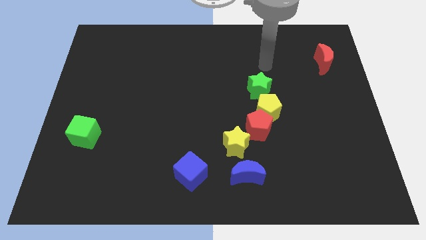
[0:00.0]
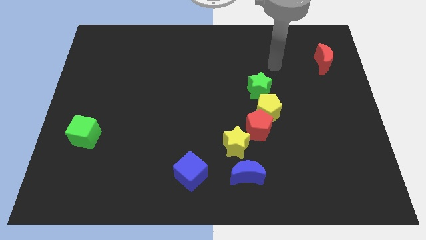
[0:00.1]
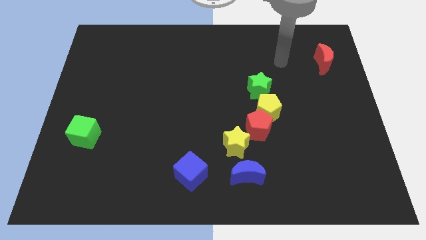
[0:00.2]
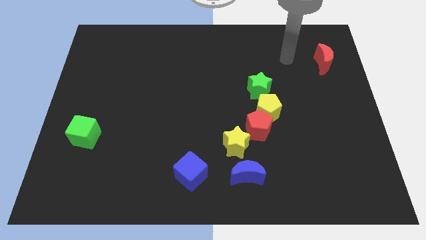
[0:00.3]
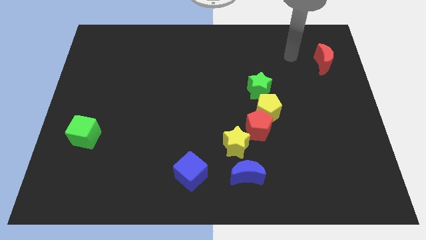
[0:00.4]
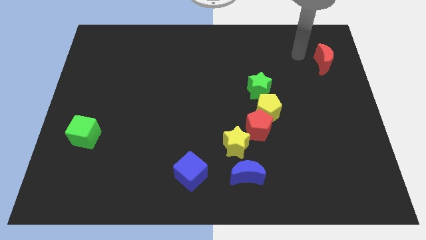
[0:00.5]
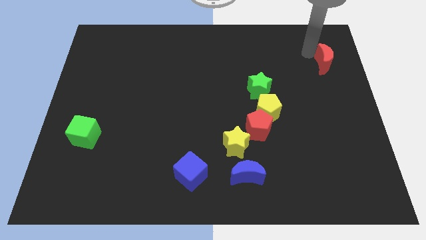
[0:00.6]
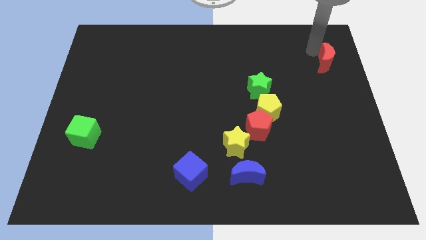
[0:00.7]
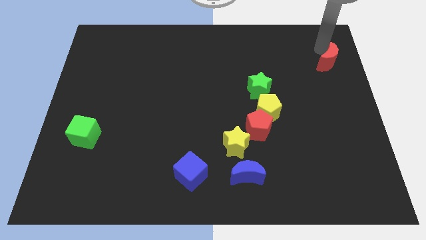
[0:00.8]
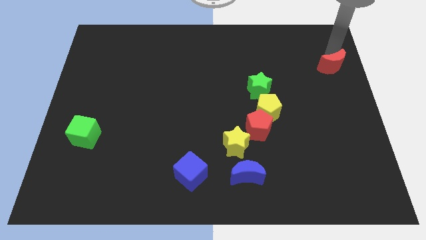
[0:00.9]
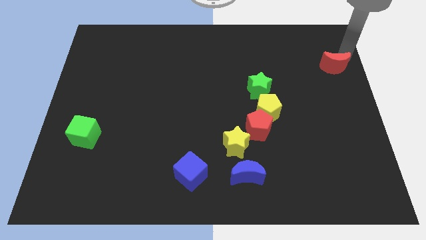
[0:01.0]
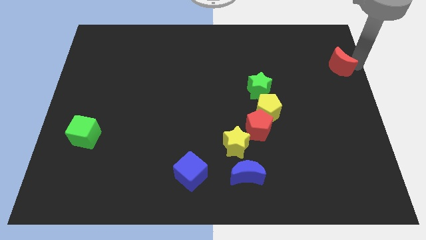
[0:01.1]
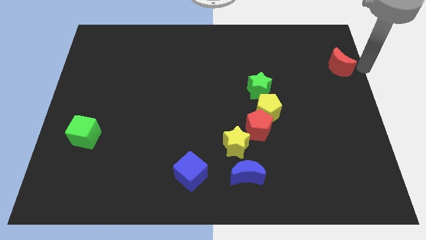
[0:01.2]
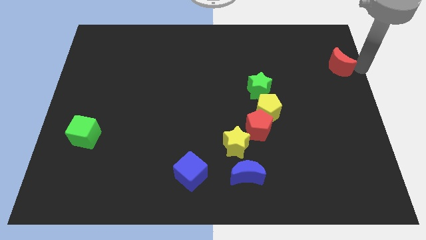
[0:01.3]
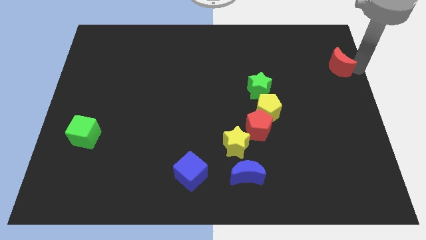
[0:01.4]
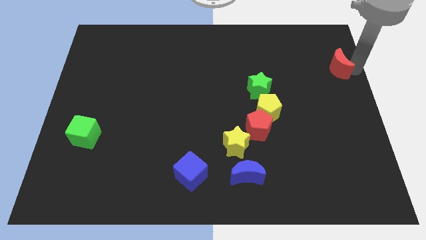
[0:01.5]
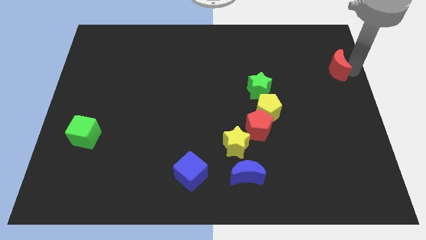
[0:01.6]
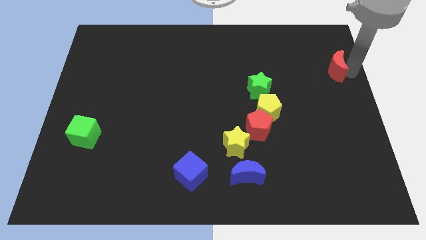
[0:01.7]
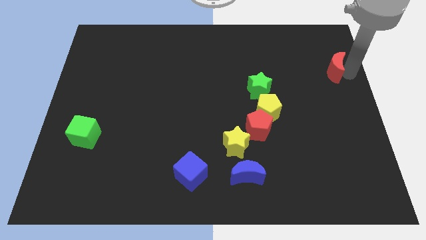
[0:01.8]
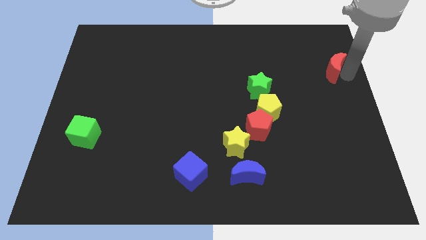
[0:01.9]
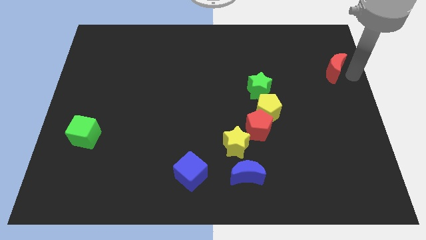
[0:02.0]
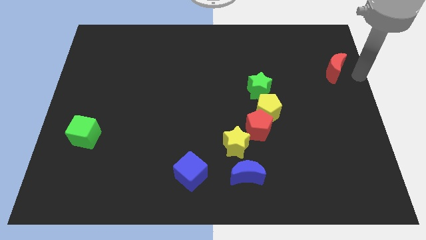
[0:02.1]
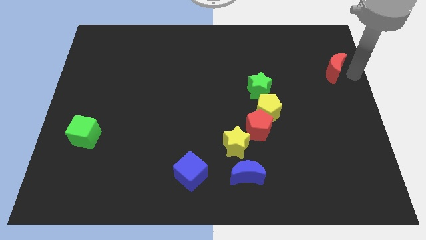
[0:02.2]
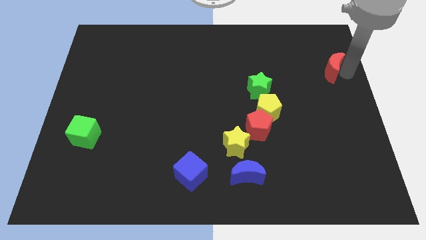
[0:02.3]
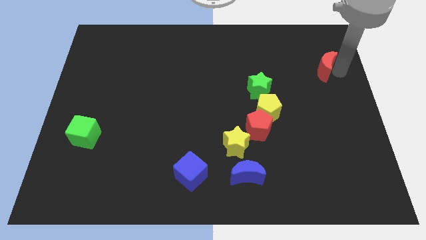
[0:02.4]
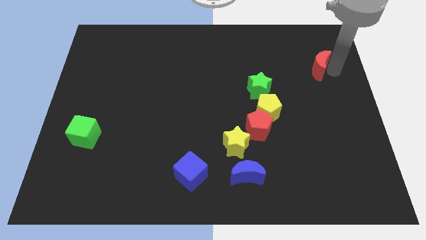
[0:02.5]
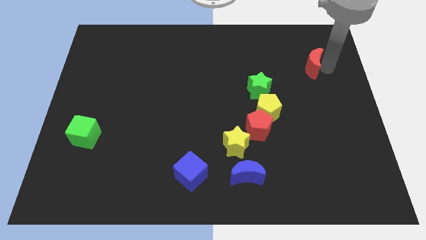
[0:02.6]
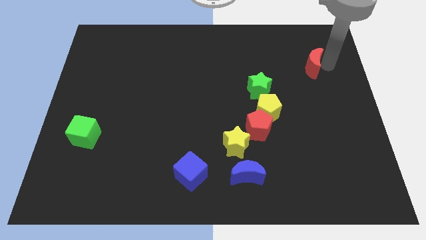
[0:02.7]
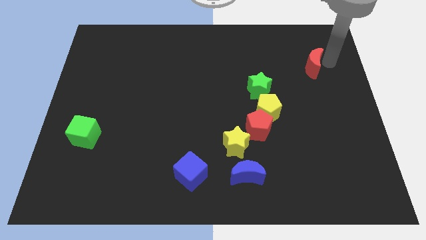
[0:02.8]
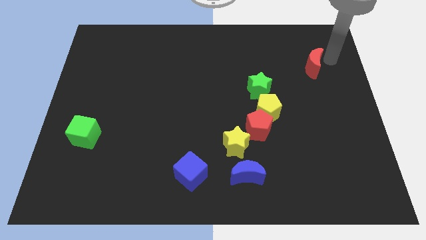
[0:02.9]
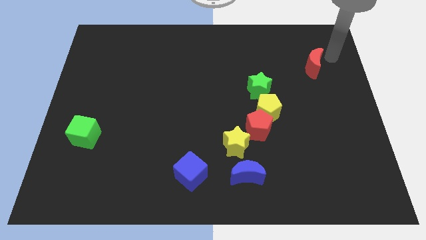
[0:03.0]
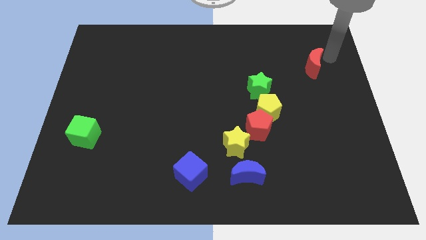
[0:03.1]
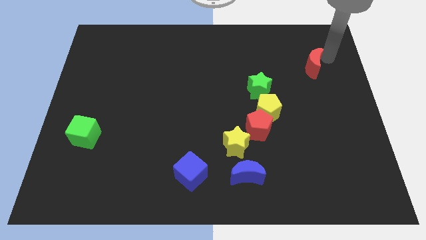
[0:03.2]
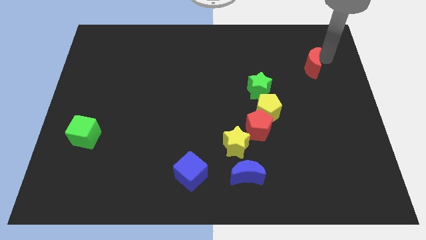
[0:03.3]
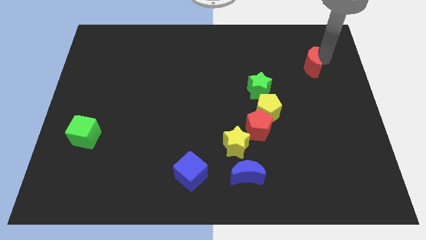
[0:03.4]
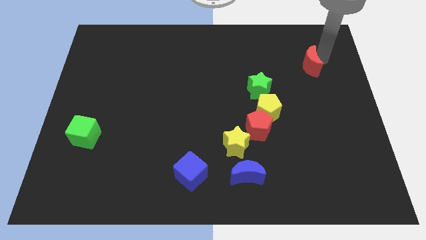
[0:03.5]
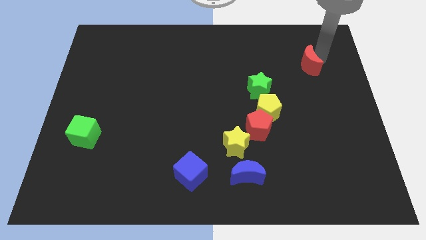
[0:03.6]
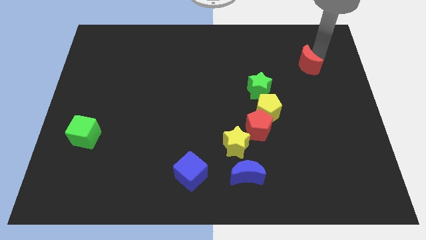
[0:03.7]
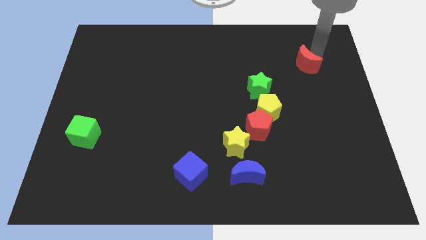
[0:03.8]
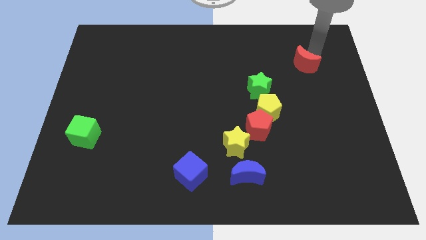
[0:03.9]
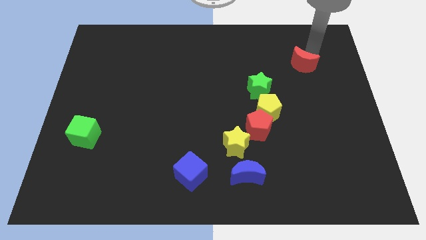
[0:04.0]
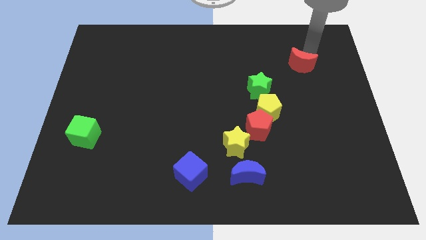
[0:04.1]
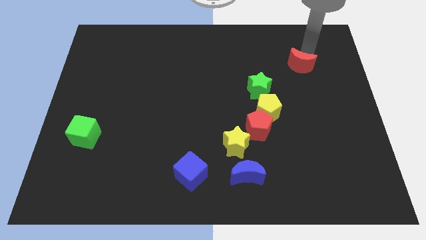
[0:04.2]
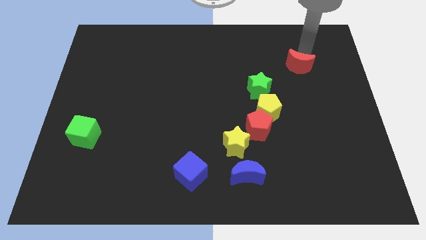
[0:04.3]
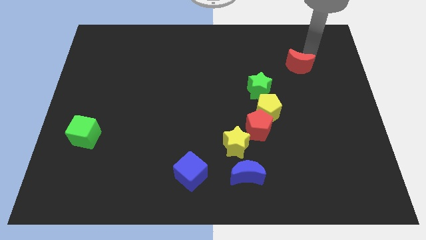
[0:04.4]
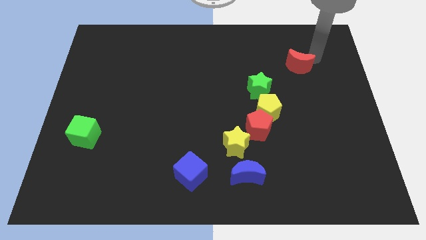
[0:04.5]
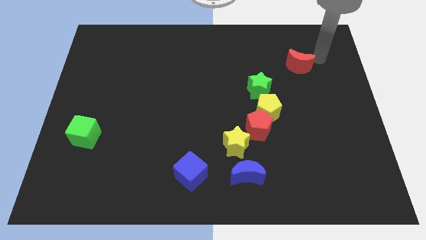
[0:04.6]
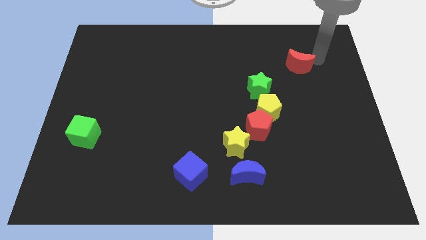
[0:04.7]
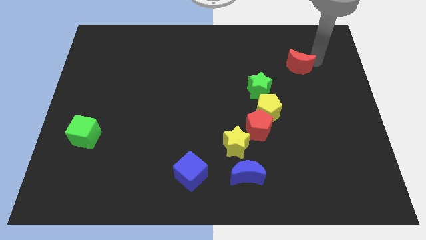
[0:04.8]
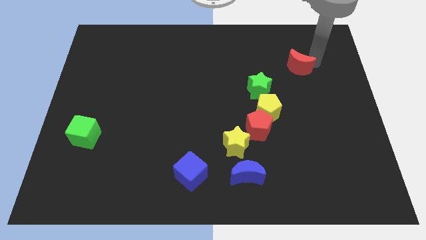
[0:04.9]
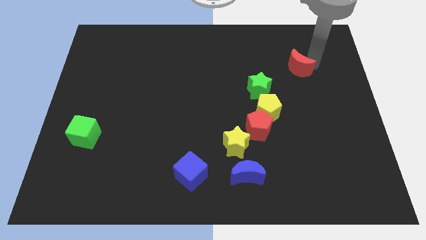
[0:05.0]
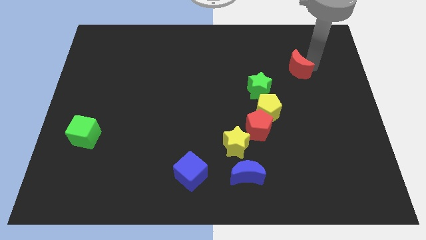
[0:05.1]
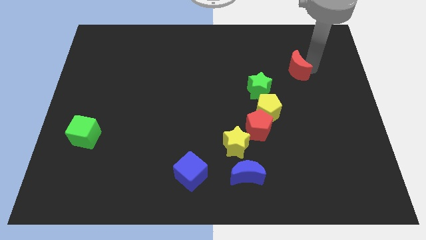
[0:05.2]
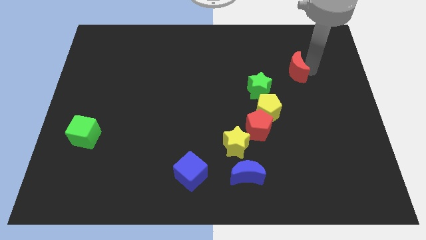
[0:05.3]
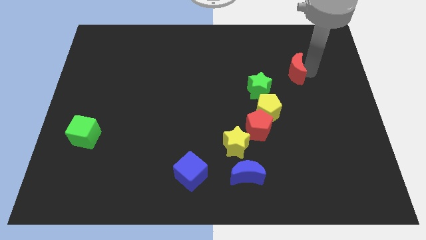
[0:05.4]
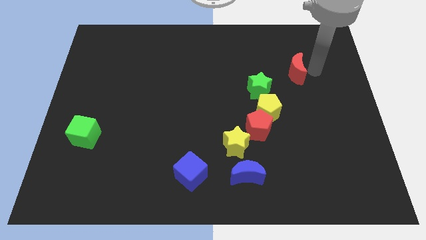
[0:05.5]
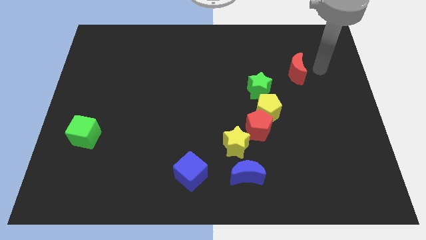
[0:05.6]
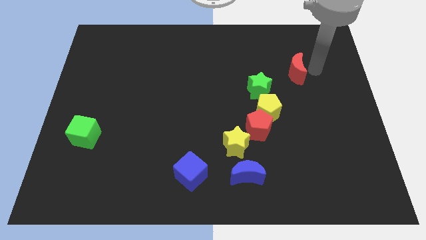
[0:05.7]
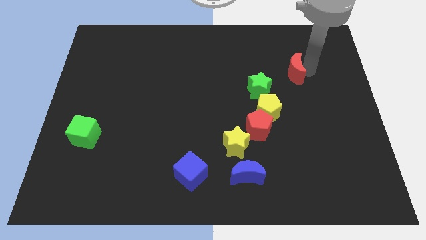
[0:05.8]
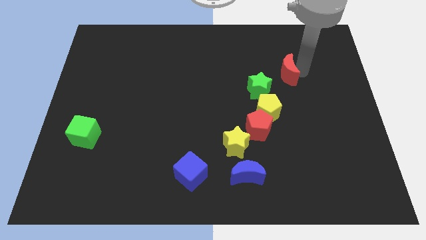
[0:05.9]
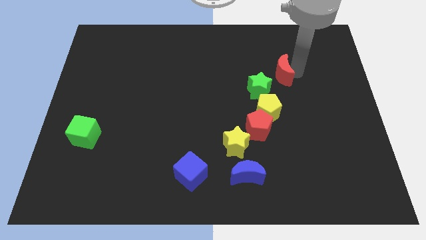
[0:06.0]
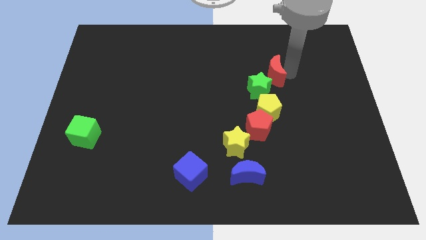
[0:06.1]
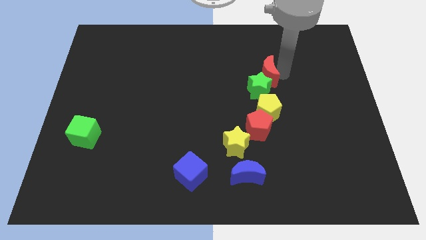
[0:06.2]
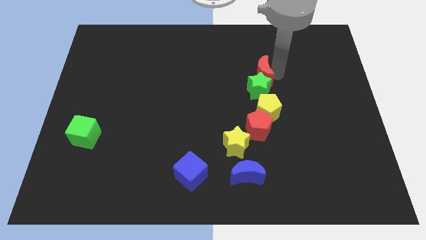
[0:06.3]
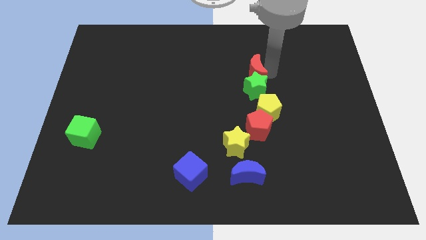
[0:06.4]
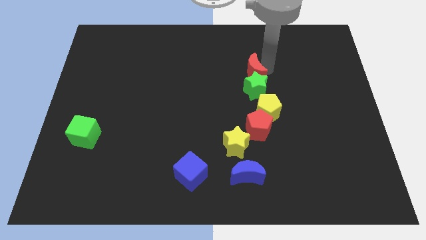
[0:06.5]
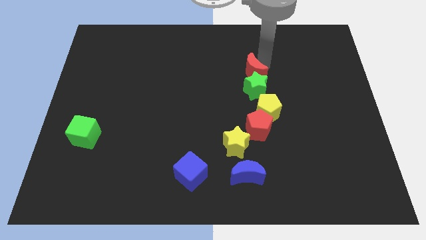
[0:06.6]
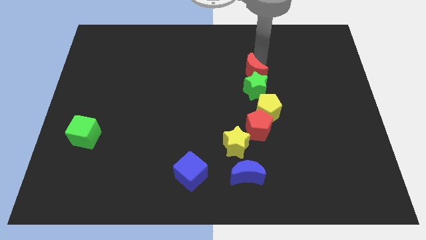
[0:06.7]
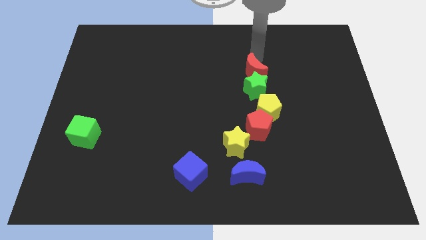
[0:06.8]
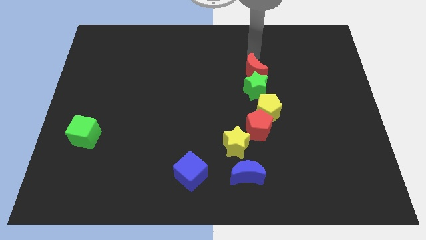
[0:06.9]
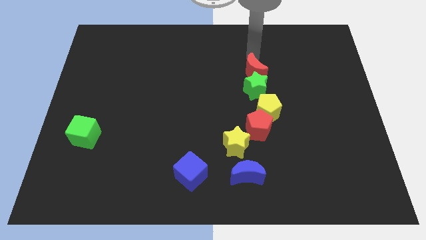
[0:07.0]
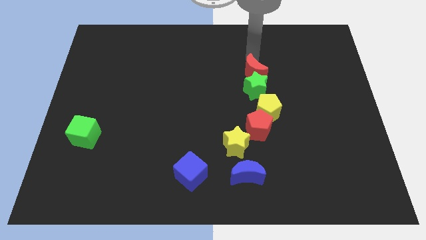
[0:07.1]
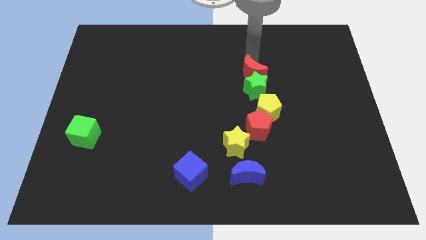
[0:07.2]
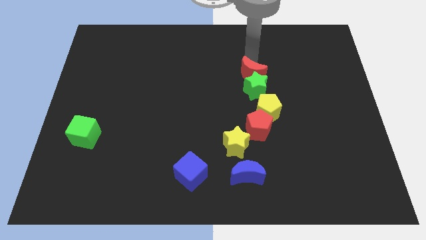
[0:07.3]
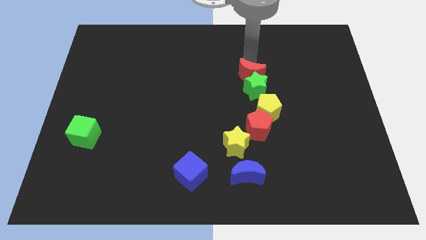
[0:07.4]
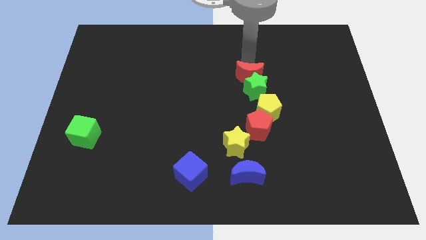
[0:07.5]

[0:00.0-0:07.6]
move the red moon to the top of the red pentagon
